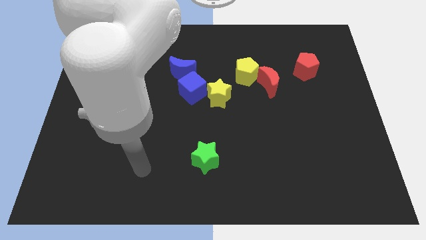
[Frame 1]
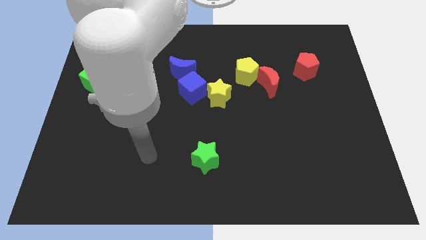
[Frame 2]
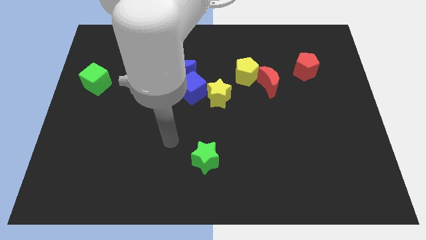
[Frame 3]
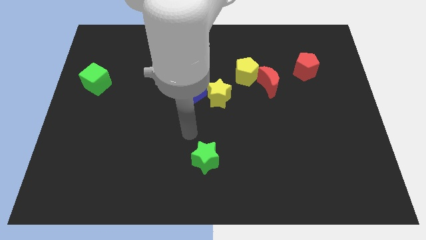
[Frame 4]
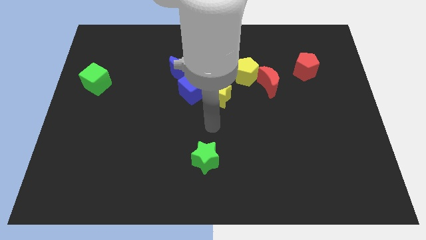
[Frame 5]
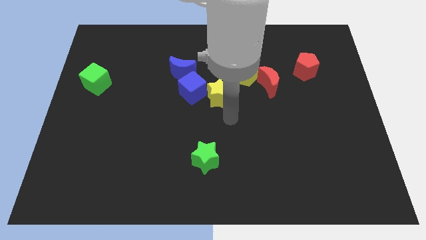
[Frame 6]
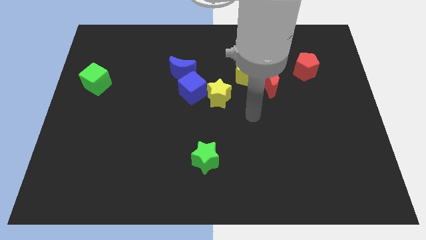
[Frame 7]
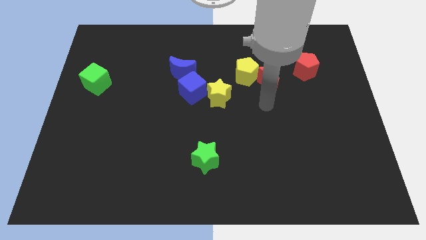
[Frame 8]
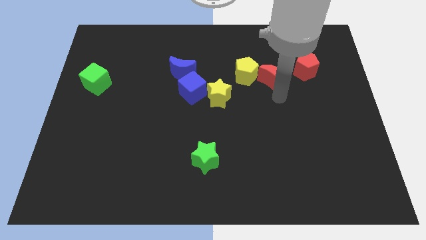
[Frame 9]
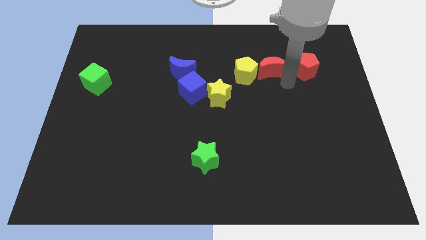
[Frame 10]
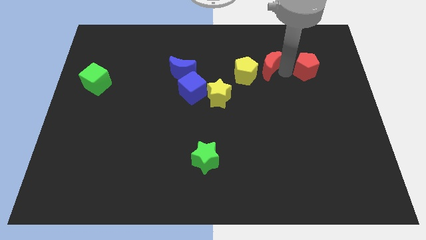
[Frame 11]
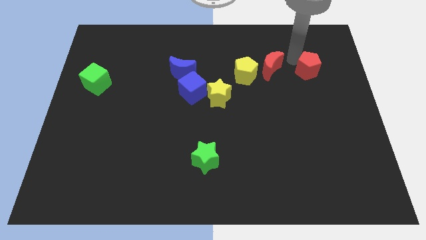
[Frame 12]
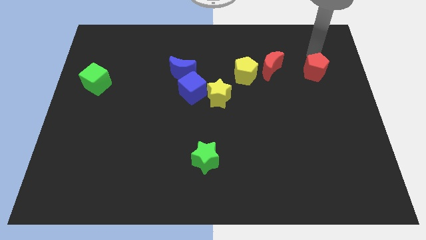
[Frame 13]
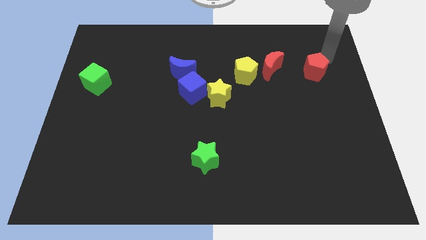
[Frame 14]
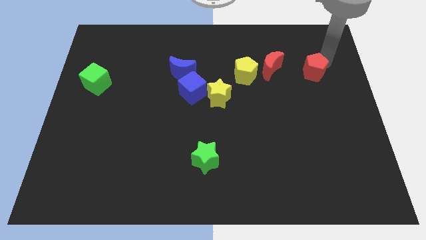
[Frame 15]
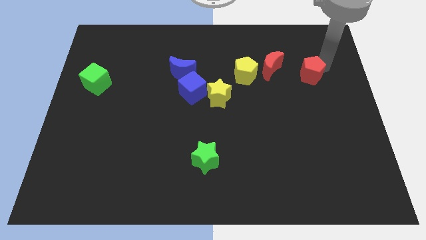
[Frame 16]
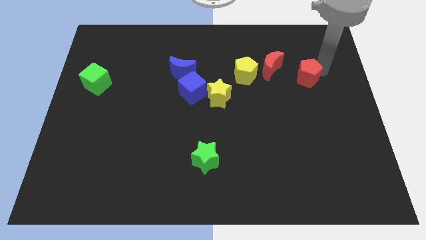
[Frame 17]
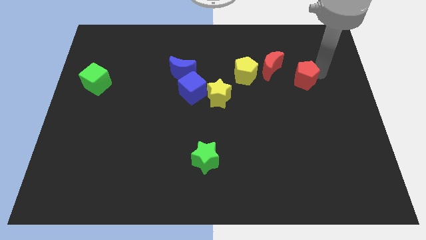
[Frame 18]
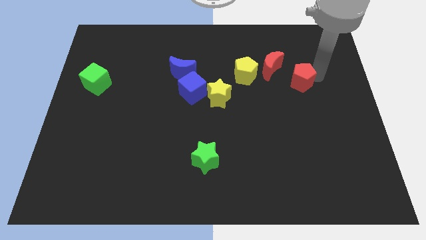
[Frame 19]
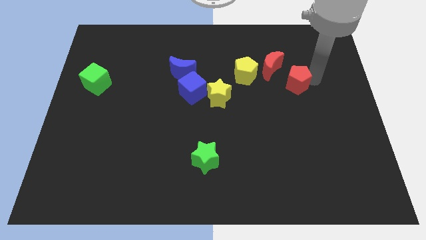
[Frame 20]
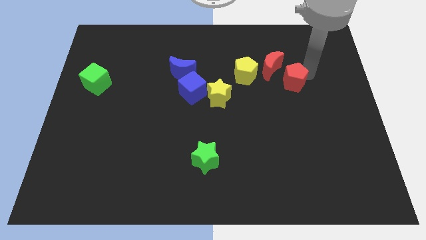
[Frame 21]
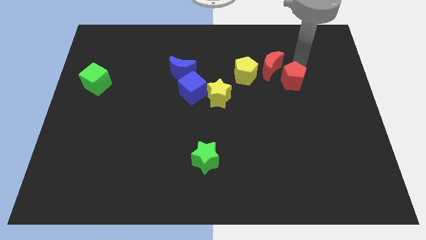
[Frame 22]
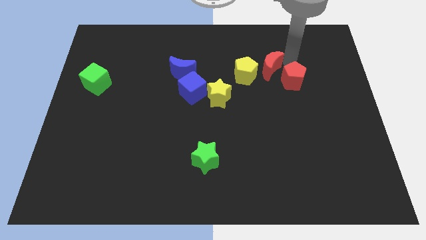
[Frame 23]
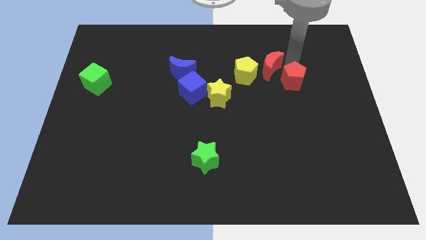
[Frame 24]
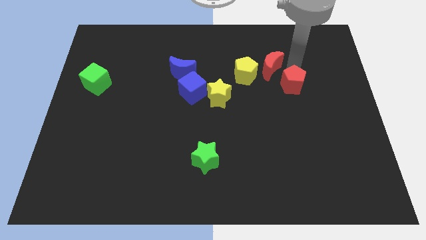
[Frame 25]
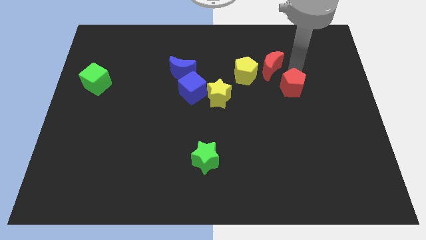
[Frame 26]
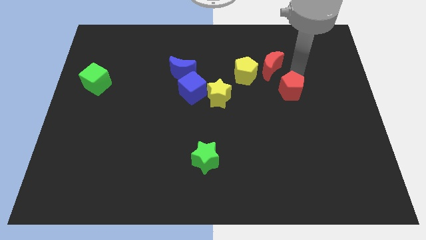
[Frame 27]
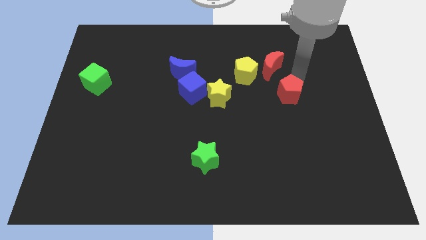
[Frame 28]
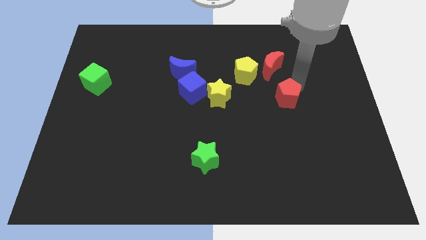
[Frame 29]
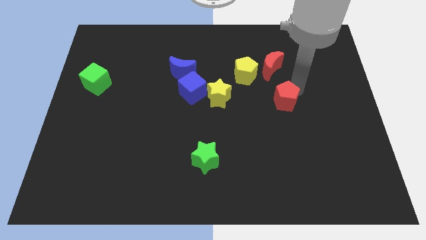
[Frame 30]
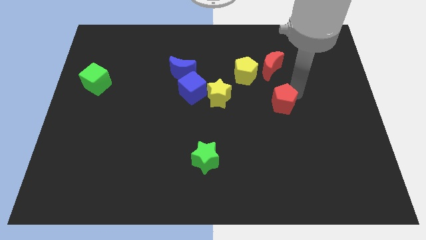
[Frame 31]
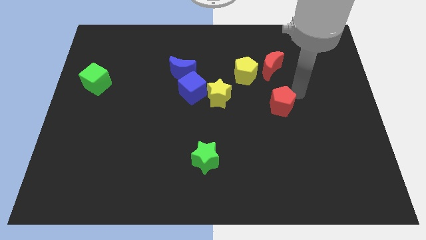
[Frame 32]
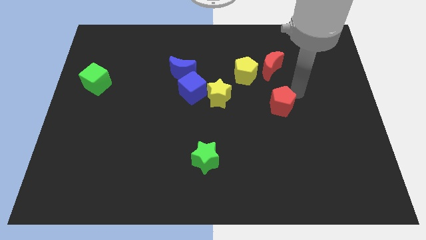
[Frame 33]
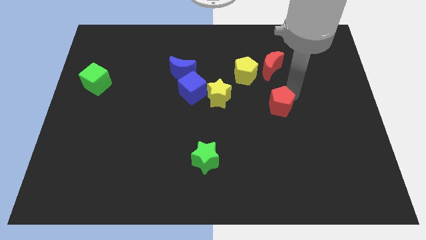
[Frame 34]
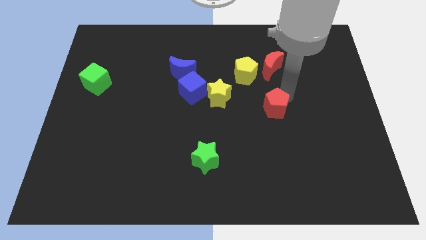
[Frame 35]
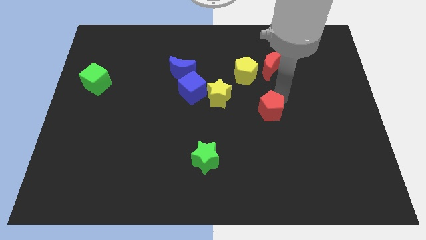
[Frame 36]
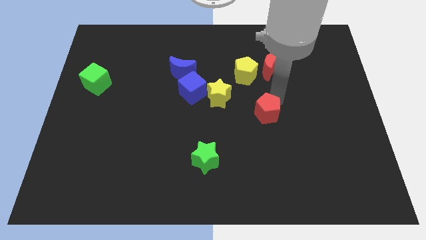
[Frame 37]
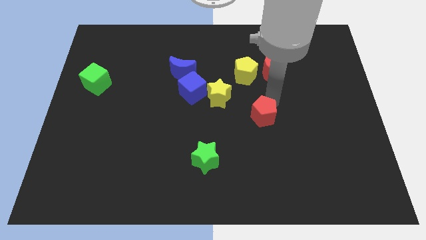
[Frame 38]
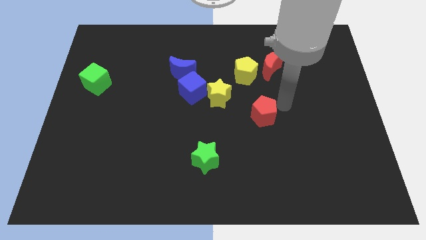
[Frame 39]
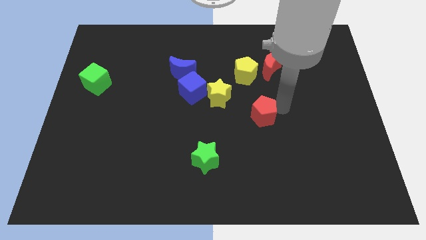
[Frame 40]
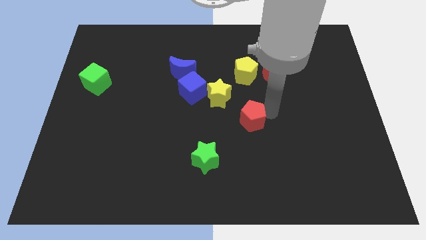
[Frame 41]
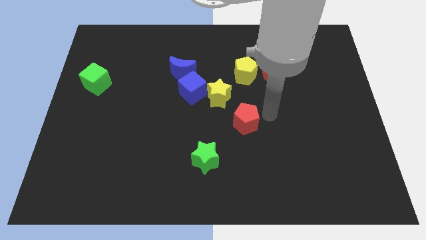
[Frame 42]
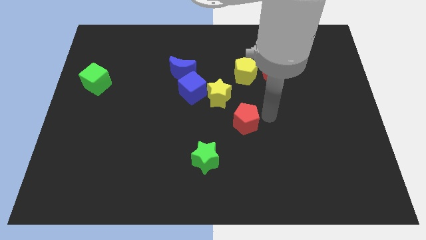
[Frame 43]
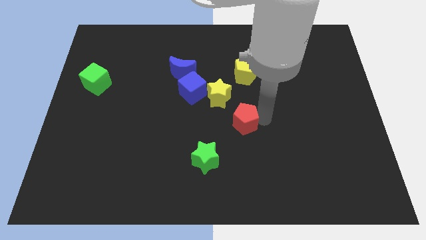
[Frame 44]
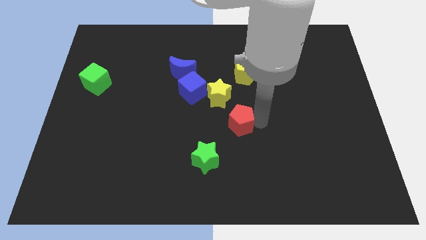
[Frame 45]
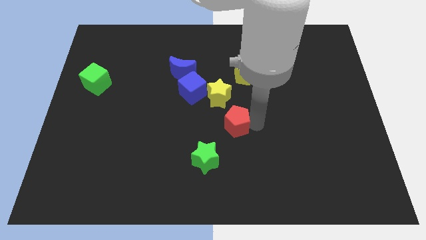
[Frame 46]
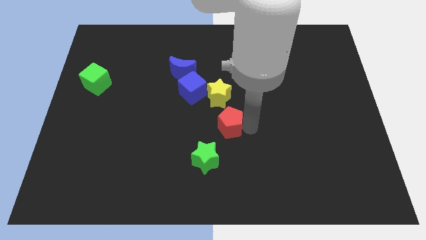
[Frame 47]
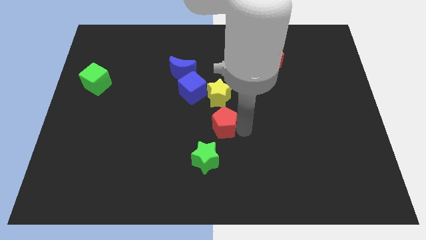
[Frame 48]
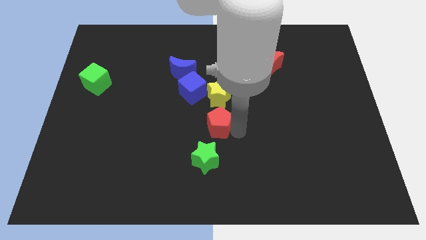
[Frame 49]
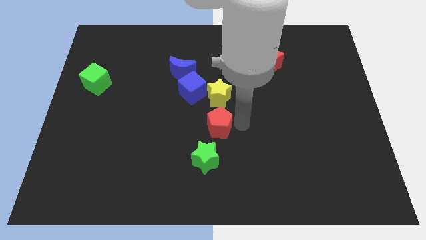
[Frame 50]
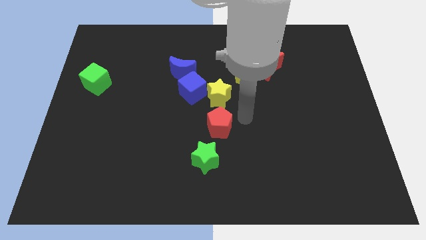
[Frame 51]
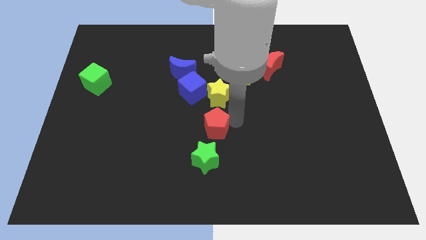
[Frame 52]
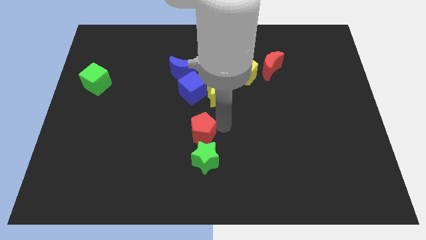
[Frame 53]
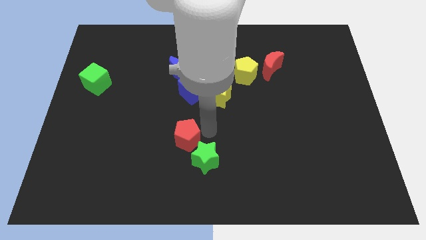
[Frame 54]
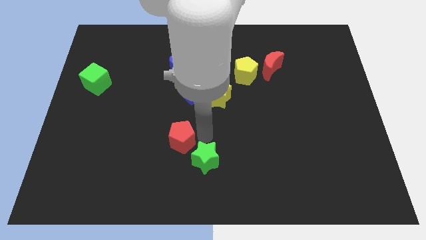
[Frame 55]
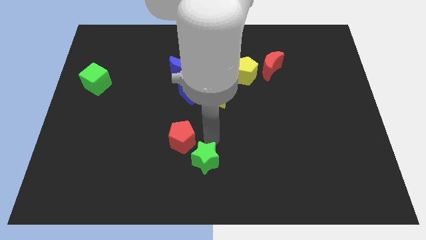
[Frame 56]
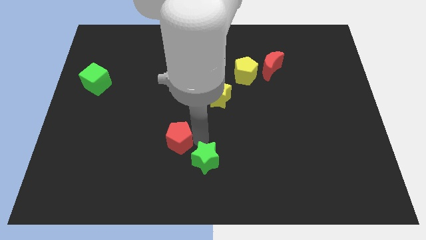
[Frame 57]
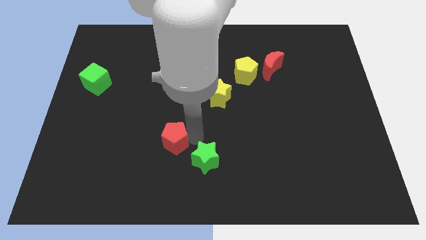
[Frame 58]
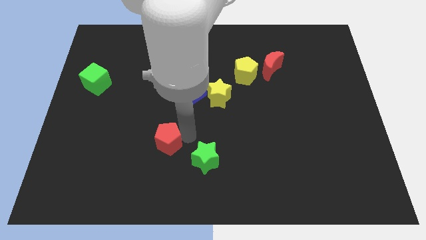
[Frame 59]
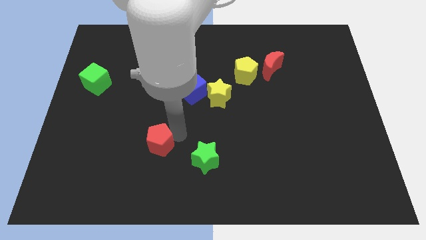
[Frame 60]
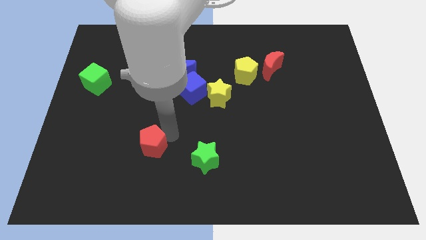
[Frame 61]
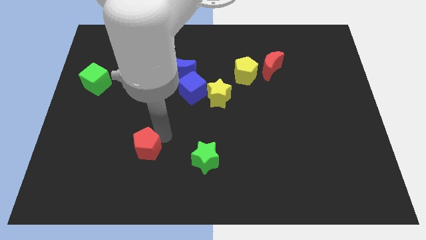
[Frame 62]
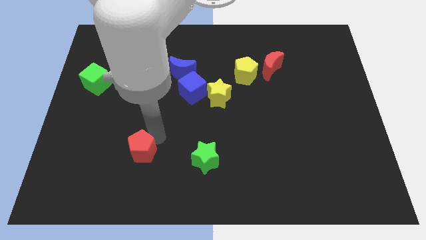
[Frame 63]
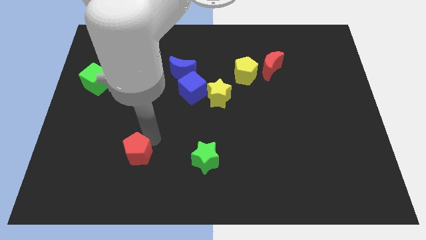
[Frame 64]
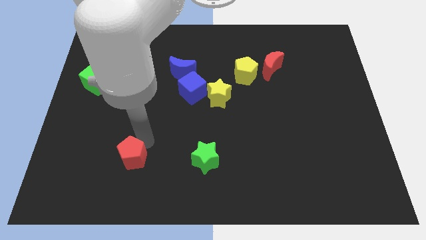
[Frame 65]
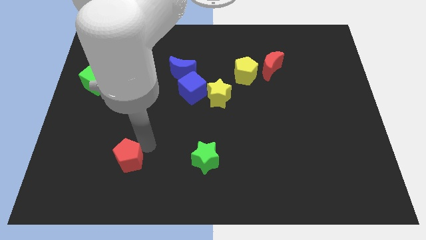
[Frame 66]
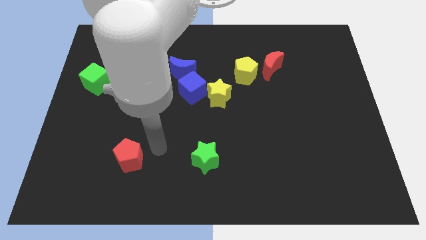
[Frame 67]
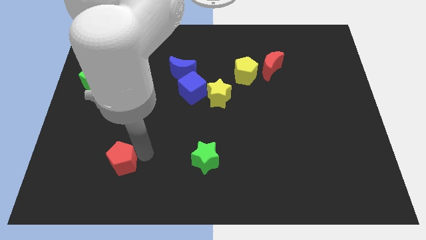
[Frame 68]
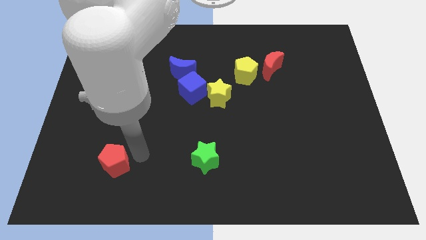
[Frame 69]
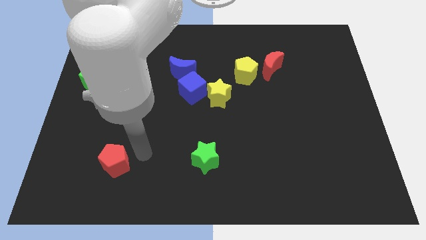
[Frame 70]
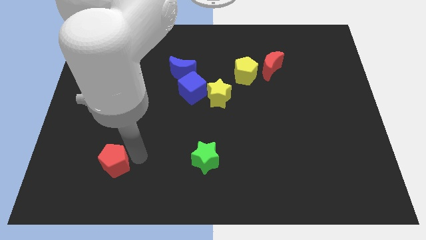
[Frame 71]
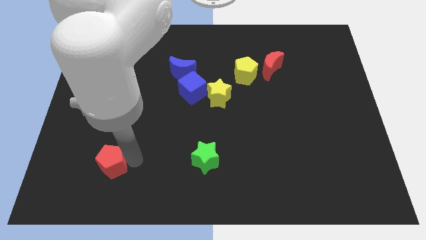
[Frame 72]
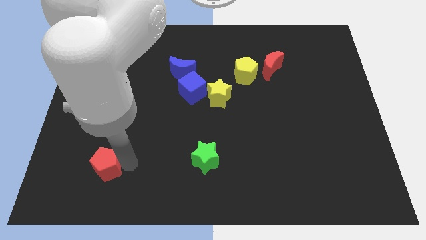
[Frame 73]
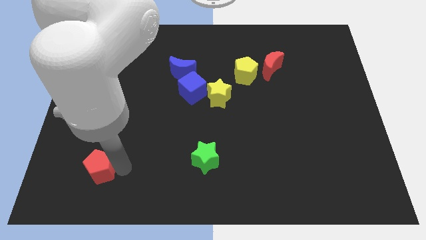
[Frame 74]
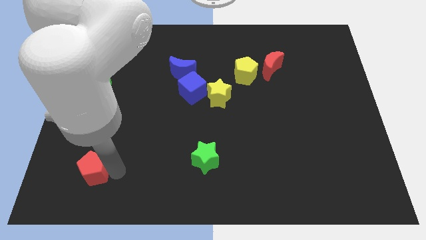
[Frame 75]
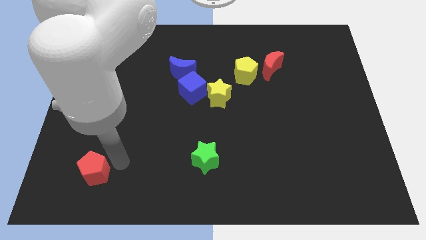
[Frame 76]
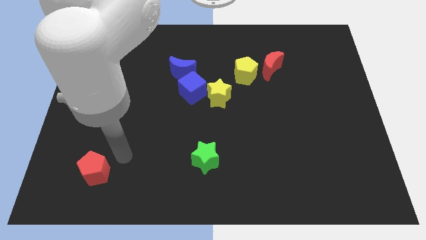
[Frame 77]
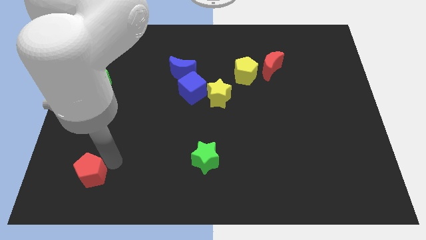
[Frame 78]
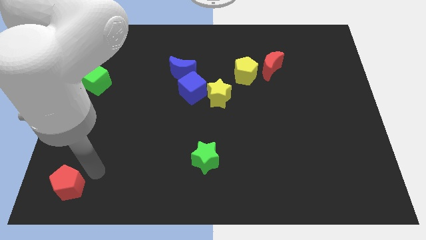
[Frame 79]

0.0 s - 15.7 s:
slide the red pentagon to the bottom left

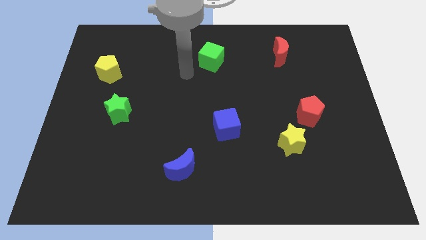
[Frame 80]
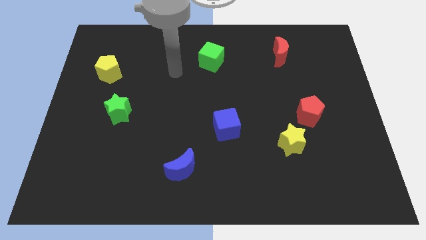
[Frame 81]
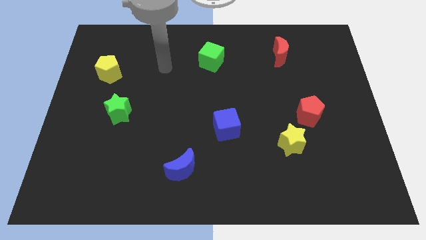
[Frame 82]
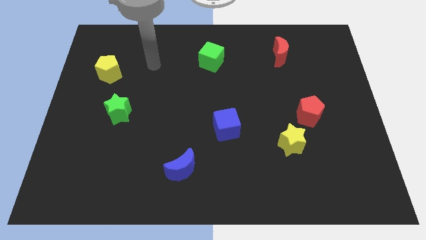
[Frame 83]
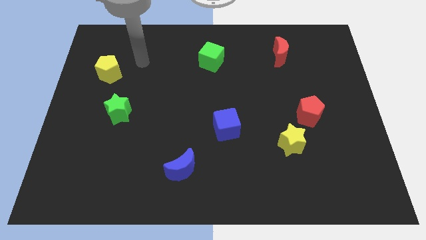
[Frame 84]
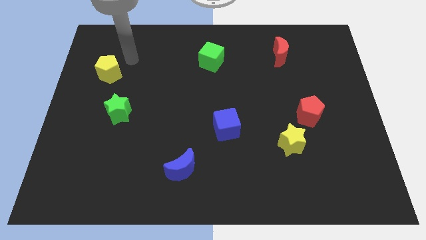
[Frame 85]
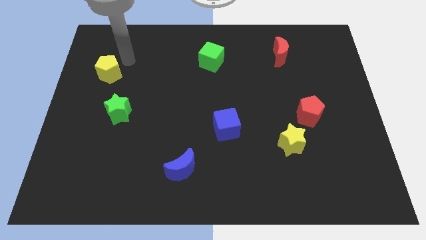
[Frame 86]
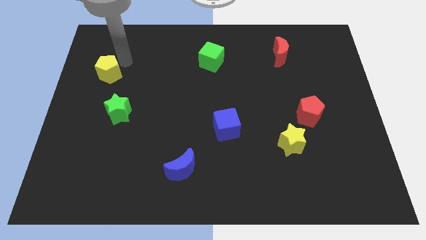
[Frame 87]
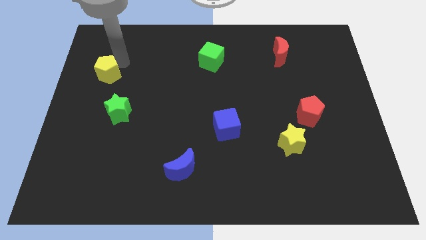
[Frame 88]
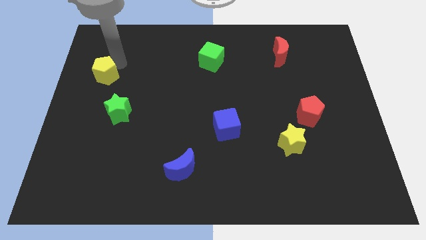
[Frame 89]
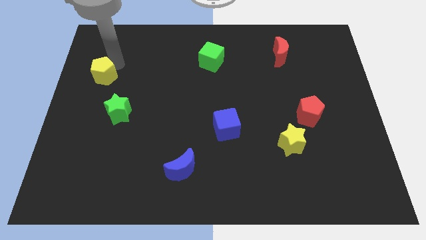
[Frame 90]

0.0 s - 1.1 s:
push the yellow pentagon to the left side
